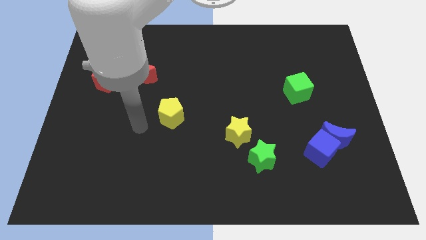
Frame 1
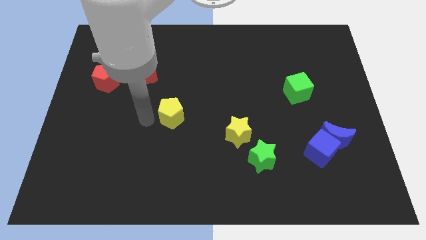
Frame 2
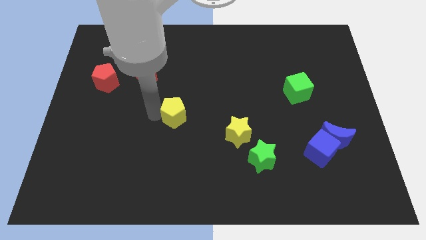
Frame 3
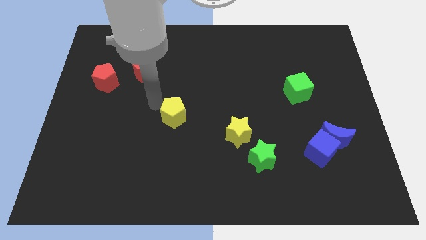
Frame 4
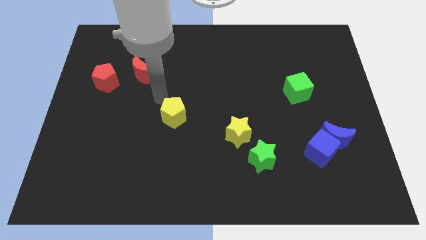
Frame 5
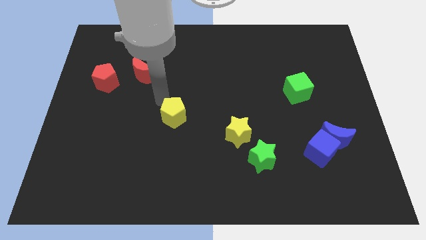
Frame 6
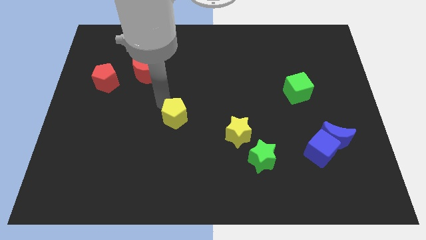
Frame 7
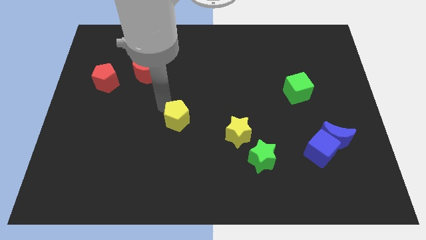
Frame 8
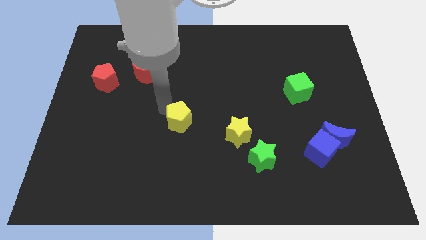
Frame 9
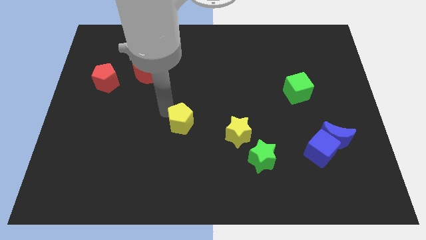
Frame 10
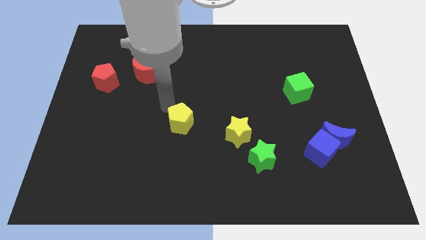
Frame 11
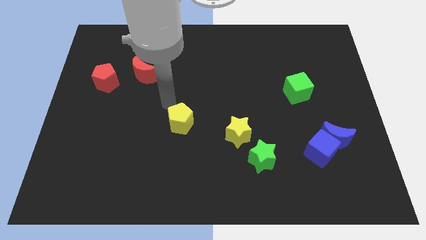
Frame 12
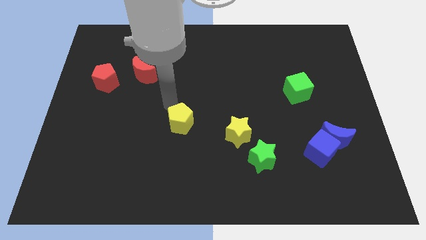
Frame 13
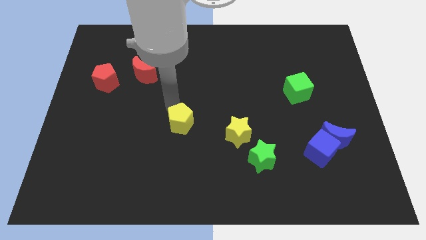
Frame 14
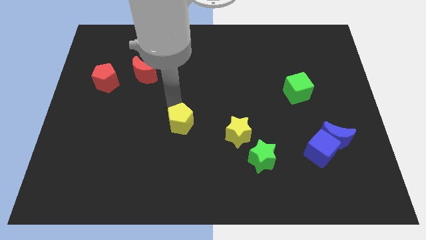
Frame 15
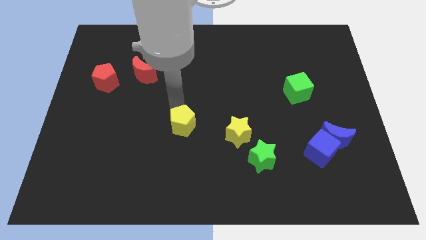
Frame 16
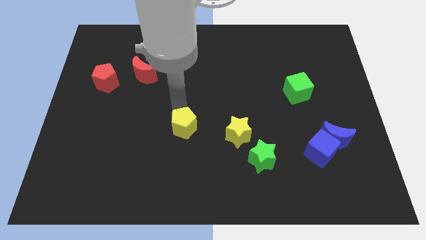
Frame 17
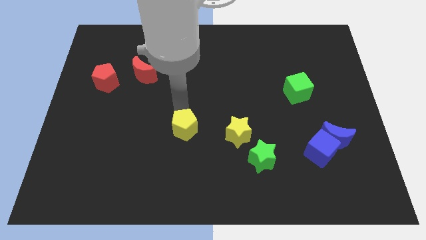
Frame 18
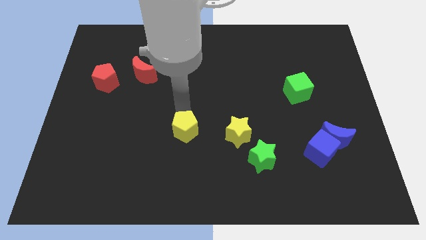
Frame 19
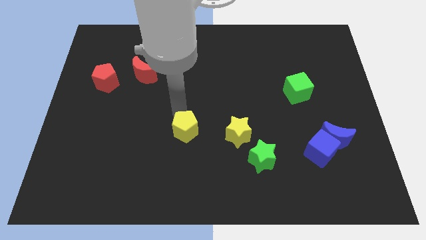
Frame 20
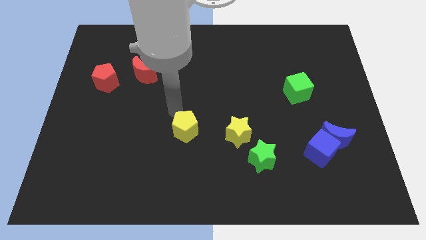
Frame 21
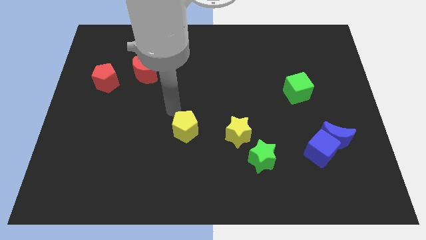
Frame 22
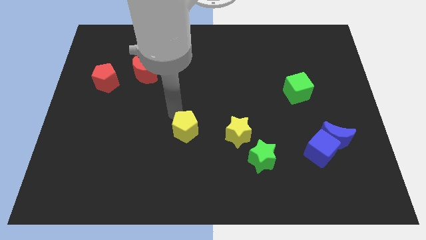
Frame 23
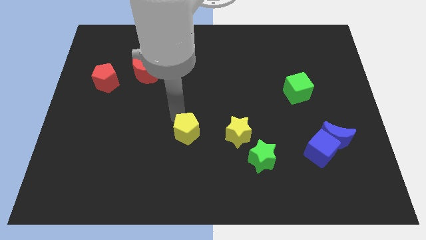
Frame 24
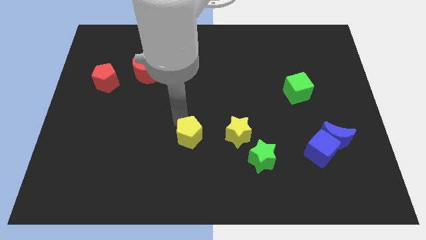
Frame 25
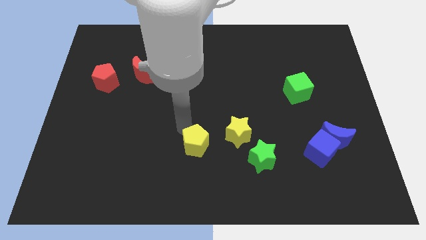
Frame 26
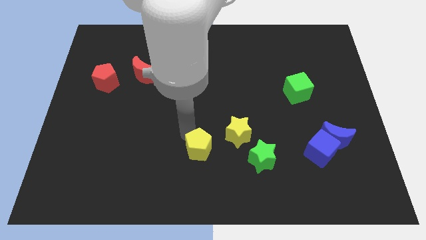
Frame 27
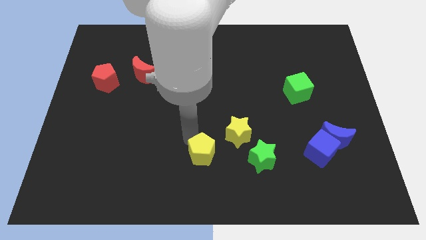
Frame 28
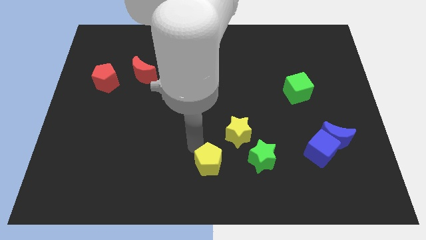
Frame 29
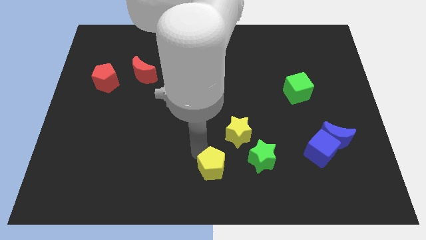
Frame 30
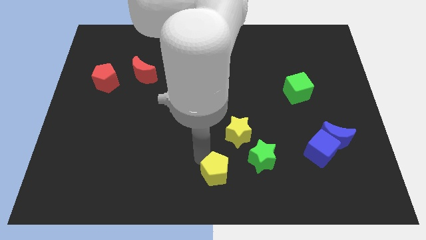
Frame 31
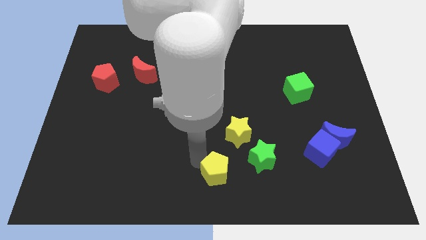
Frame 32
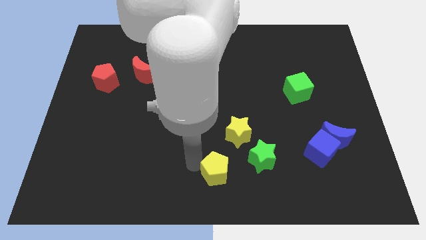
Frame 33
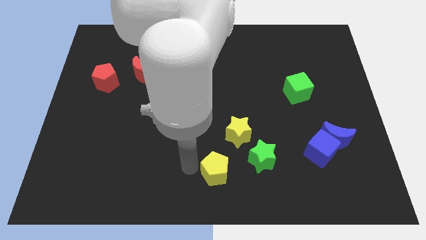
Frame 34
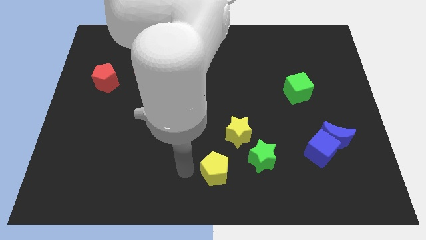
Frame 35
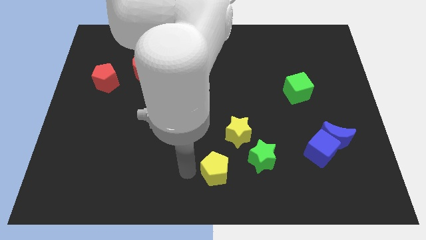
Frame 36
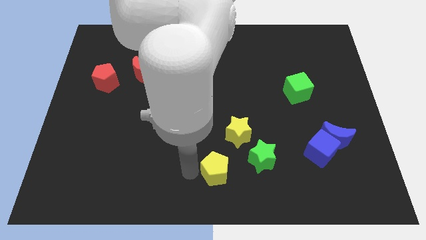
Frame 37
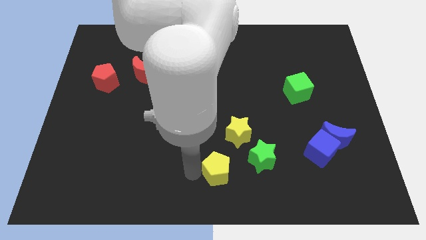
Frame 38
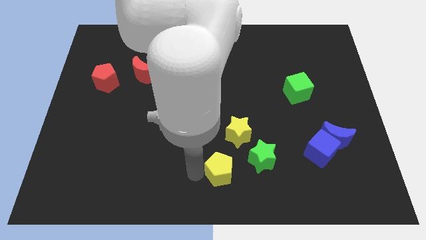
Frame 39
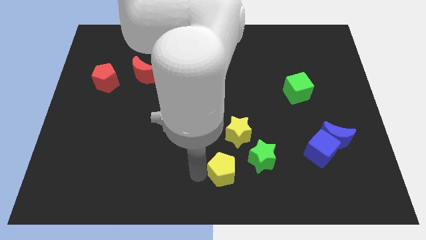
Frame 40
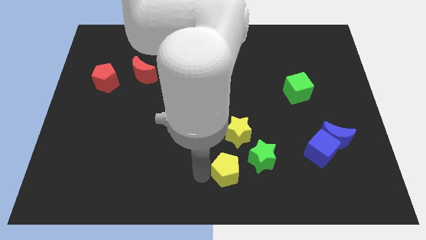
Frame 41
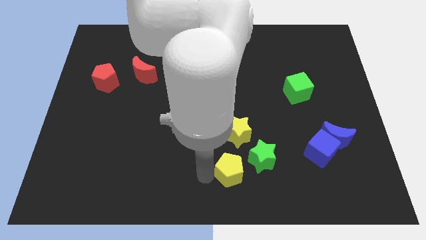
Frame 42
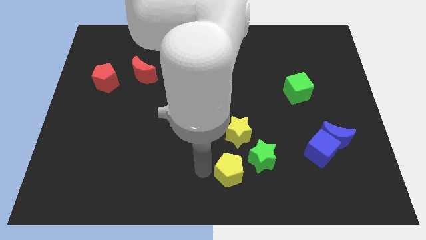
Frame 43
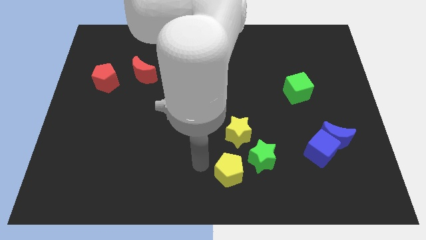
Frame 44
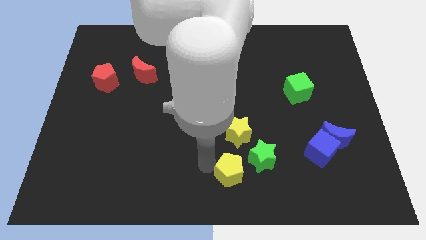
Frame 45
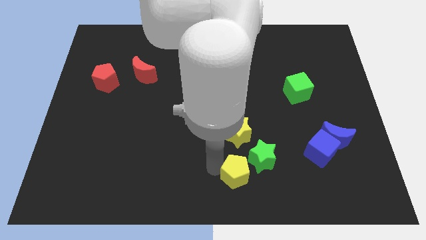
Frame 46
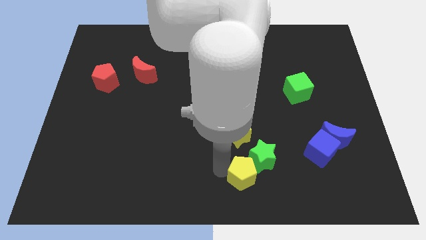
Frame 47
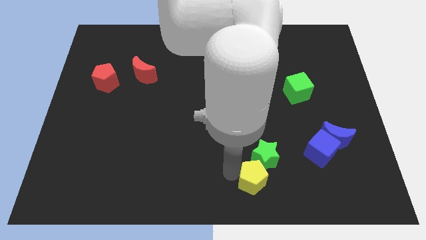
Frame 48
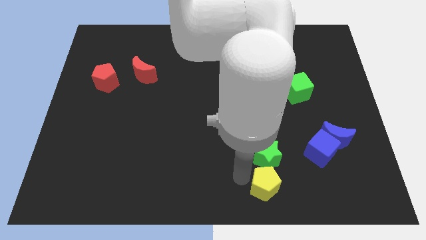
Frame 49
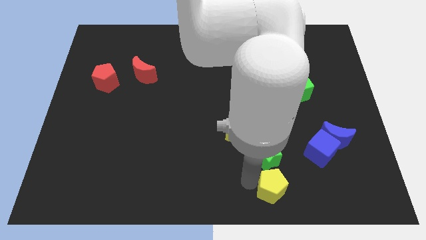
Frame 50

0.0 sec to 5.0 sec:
push the yellow pentagon diagonally down and to the right of the green star

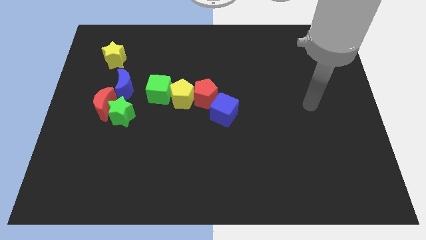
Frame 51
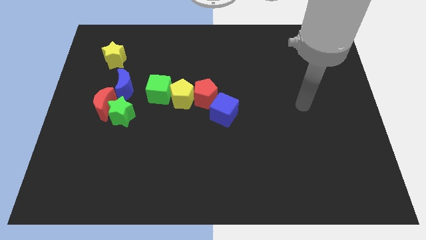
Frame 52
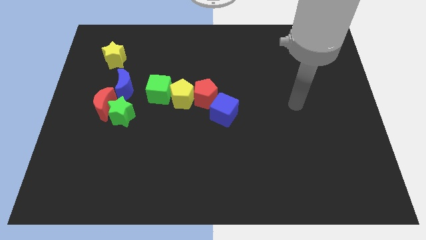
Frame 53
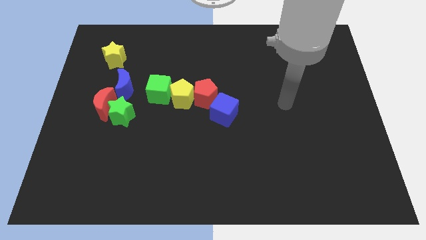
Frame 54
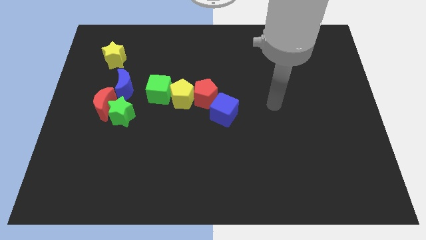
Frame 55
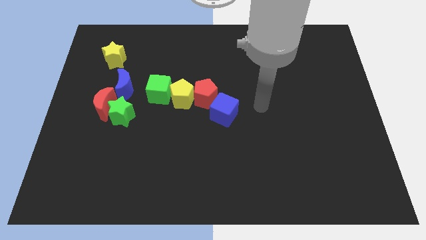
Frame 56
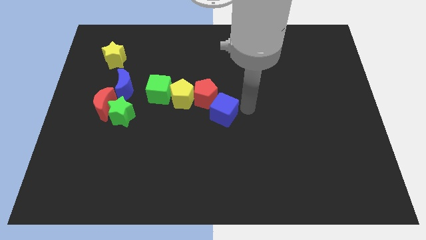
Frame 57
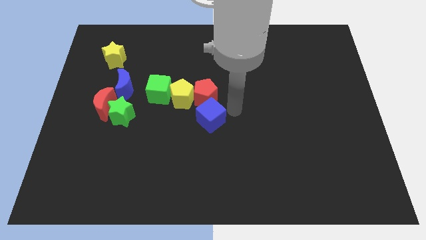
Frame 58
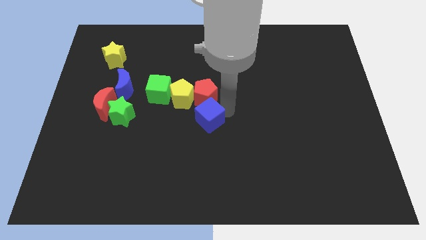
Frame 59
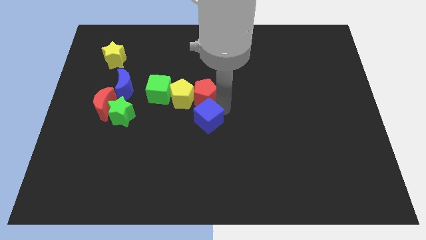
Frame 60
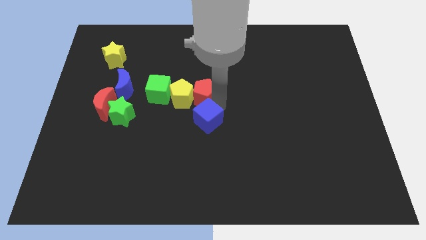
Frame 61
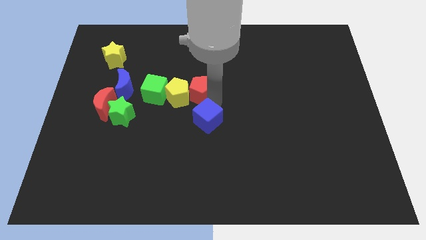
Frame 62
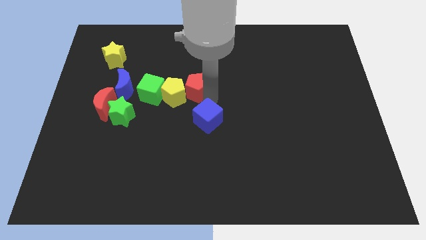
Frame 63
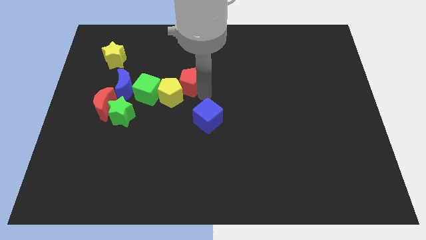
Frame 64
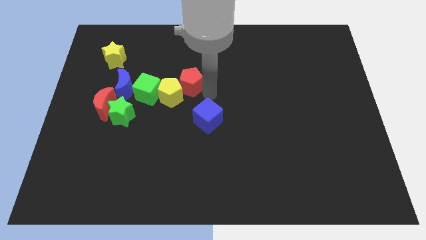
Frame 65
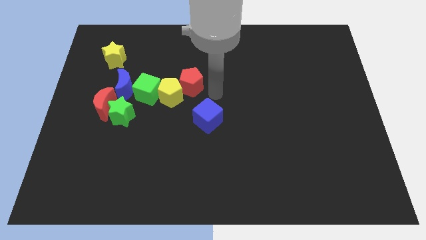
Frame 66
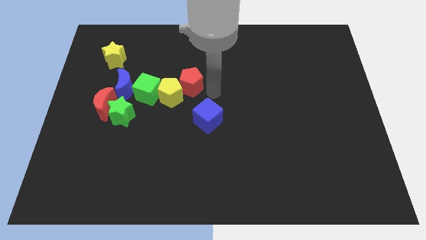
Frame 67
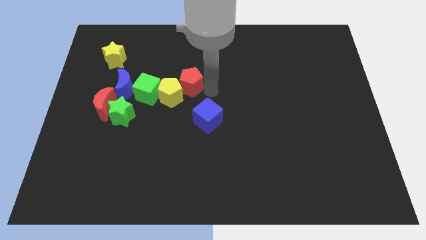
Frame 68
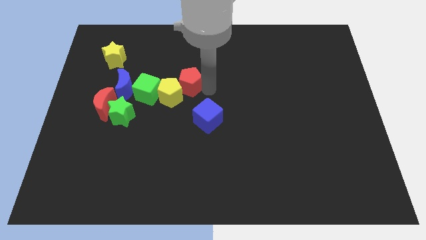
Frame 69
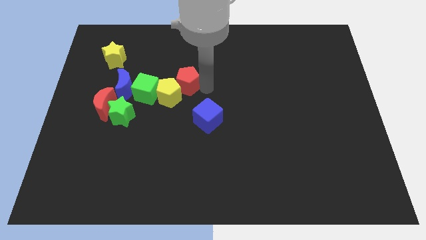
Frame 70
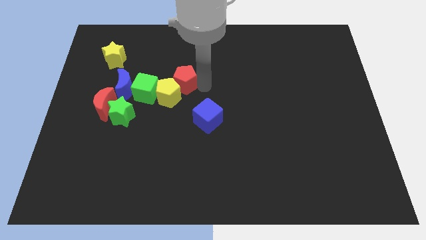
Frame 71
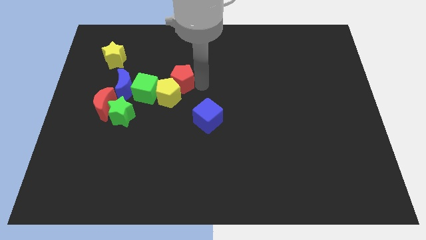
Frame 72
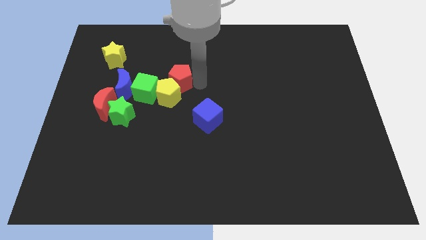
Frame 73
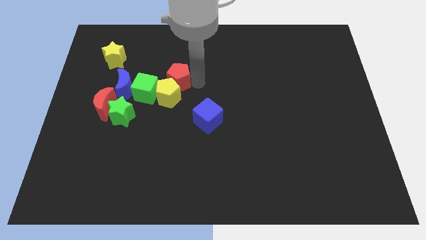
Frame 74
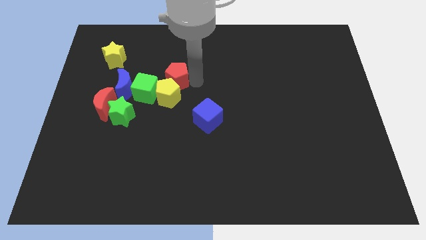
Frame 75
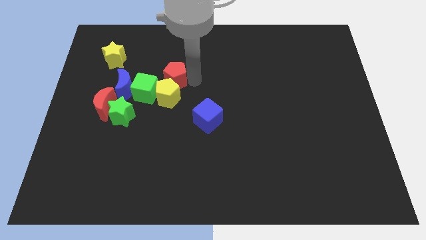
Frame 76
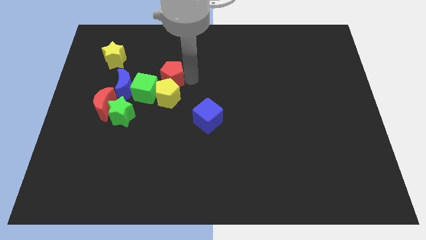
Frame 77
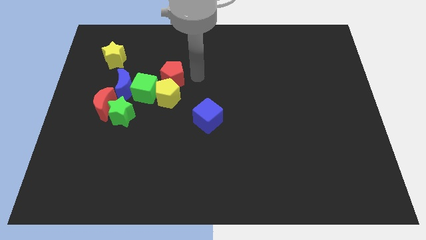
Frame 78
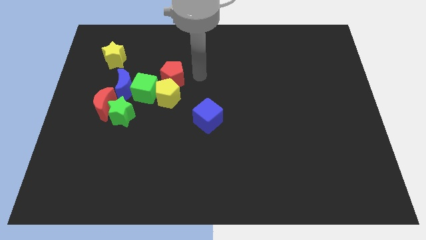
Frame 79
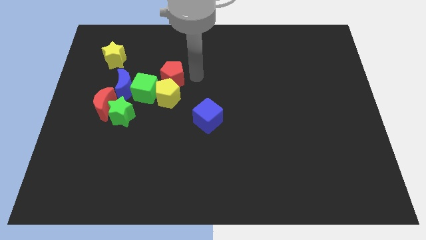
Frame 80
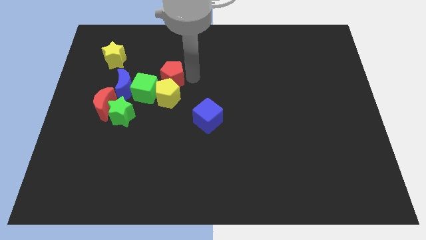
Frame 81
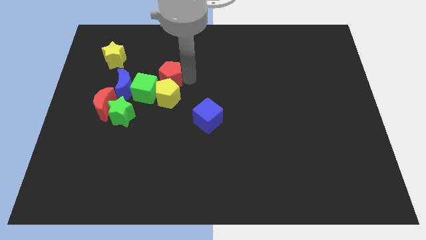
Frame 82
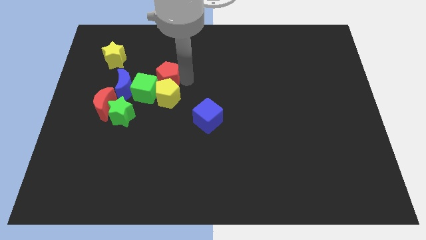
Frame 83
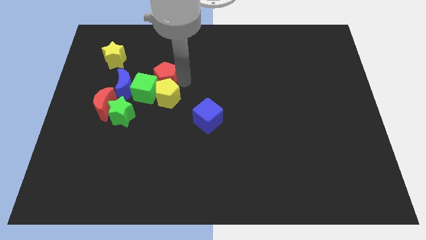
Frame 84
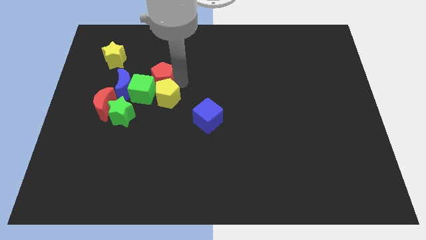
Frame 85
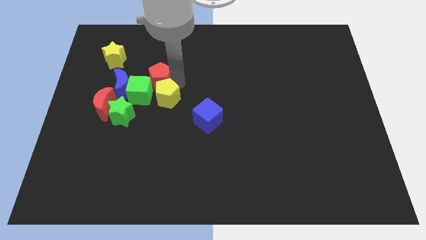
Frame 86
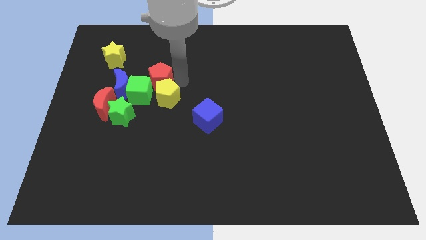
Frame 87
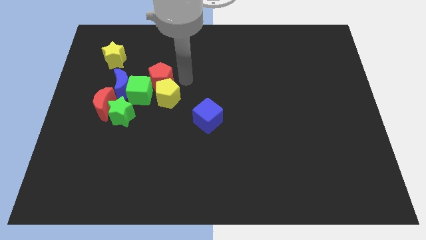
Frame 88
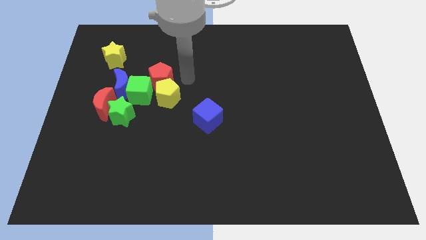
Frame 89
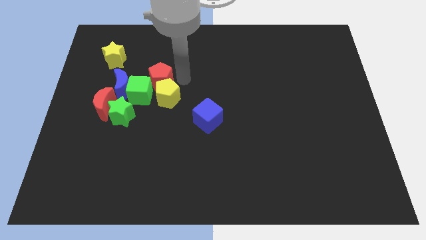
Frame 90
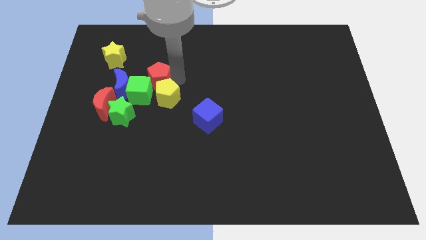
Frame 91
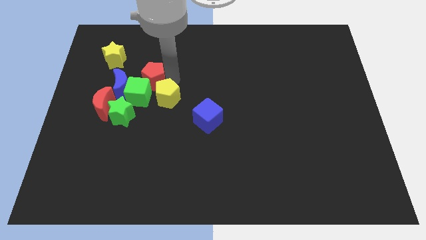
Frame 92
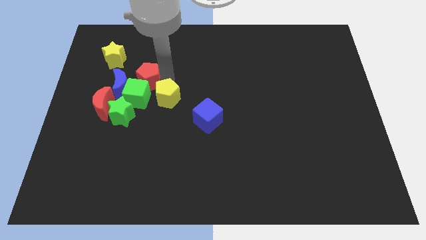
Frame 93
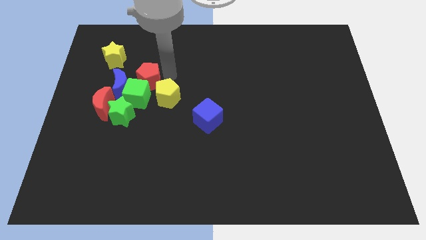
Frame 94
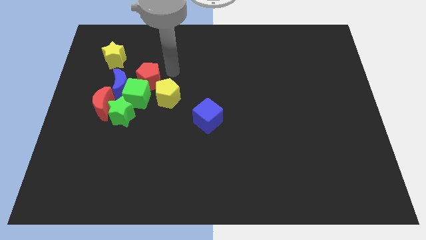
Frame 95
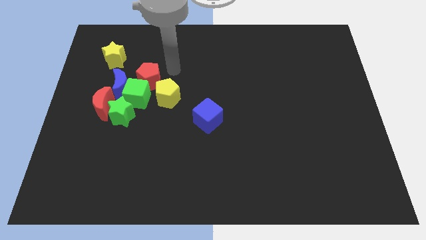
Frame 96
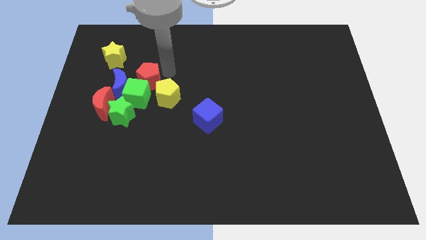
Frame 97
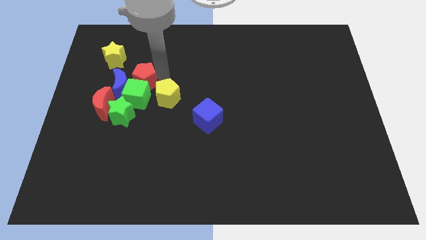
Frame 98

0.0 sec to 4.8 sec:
move the red pentagon to the top right side of the red moon
